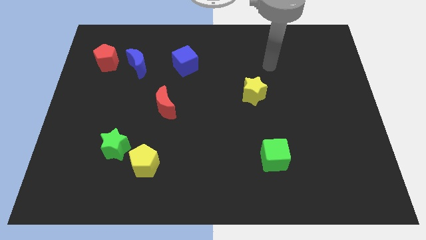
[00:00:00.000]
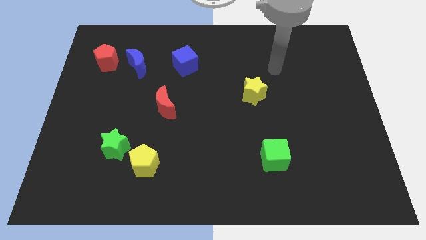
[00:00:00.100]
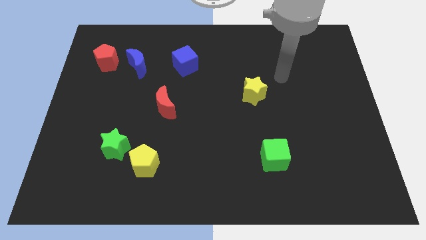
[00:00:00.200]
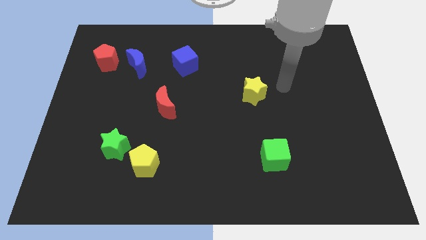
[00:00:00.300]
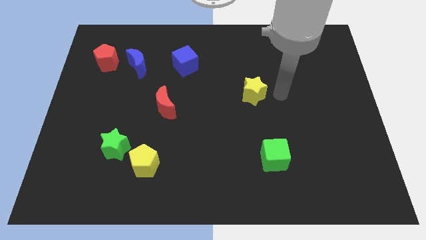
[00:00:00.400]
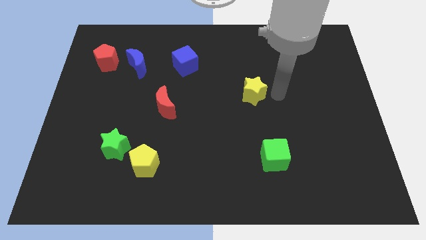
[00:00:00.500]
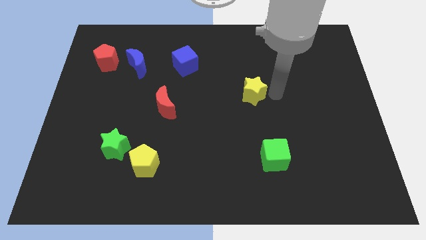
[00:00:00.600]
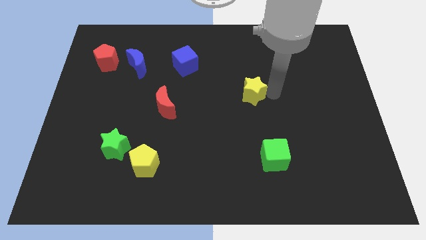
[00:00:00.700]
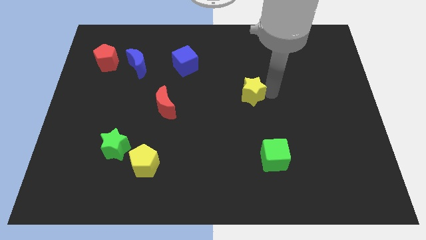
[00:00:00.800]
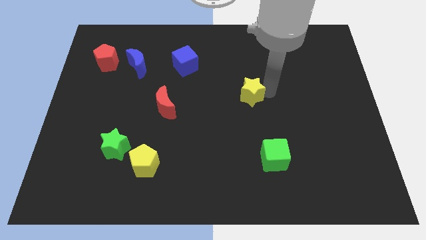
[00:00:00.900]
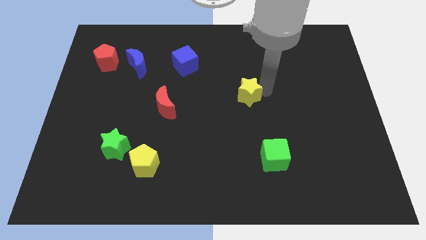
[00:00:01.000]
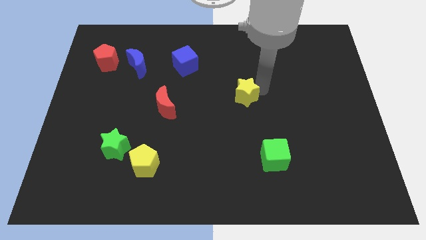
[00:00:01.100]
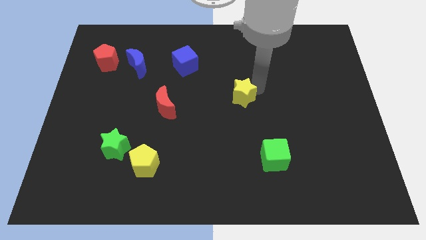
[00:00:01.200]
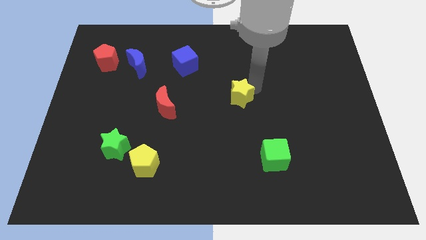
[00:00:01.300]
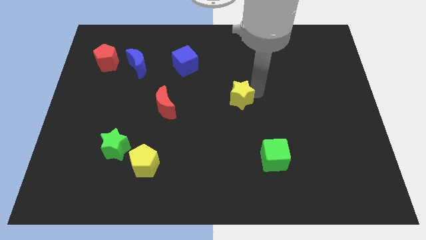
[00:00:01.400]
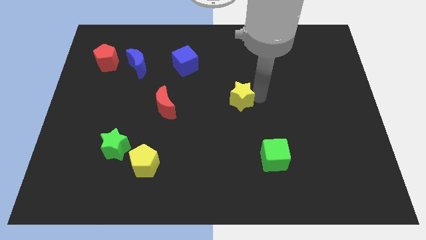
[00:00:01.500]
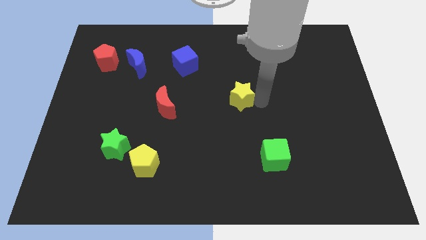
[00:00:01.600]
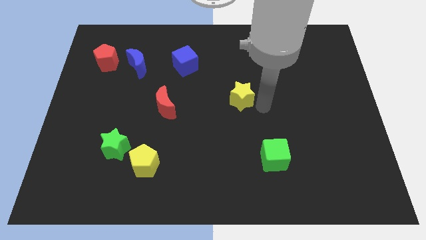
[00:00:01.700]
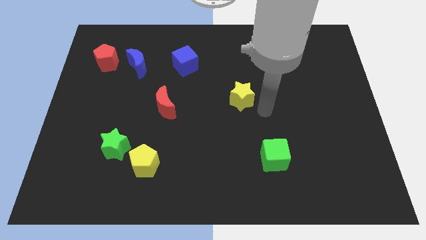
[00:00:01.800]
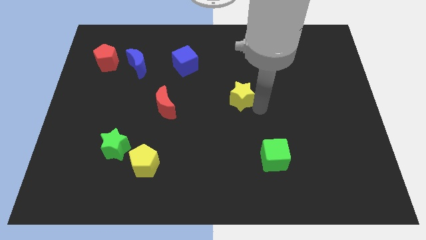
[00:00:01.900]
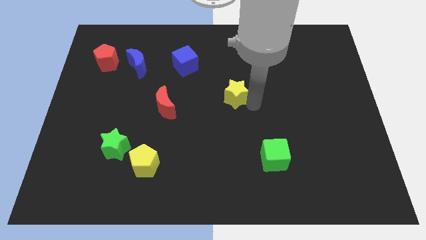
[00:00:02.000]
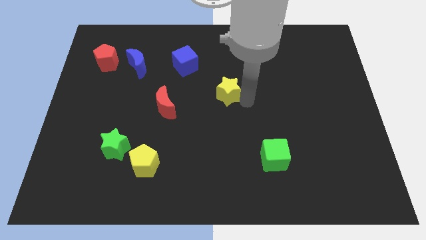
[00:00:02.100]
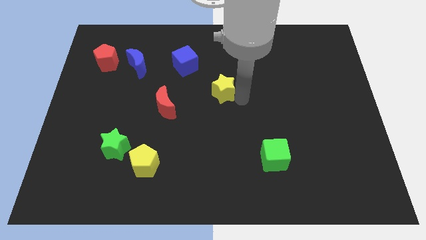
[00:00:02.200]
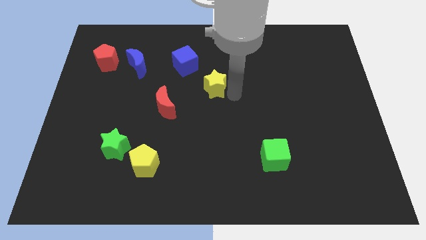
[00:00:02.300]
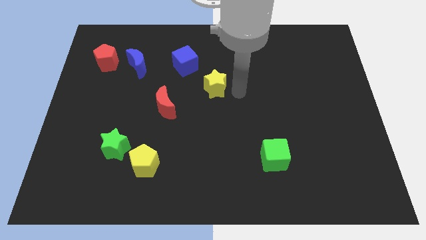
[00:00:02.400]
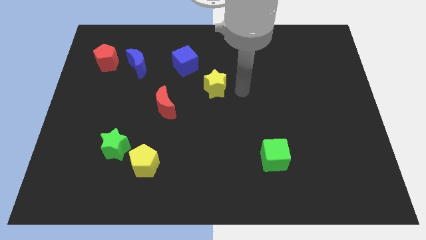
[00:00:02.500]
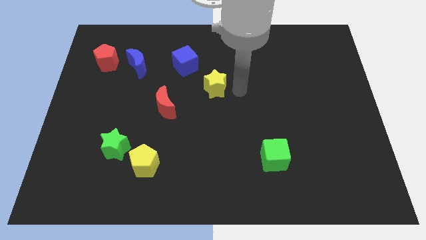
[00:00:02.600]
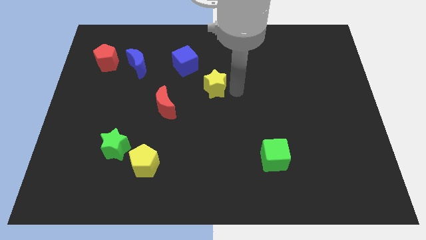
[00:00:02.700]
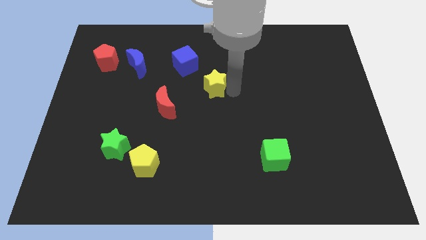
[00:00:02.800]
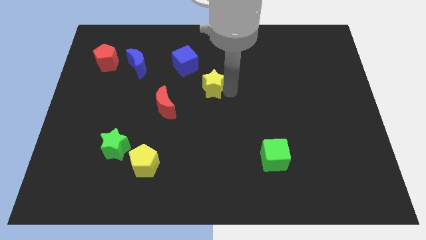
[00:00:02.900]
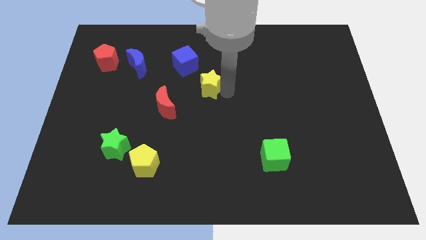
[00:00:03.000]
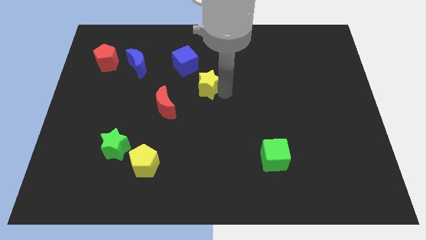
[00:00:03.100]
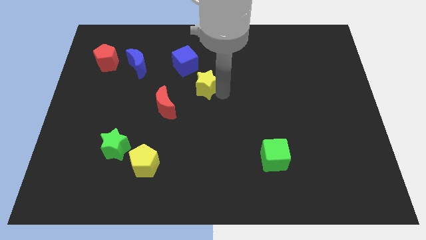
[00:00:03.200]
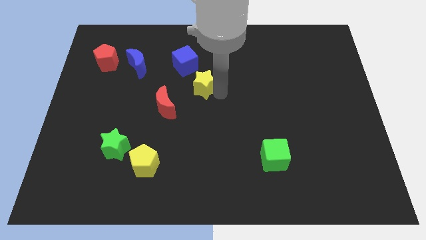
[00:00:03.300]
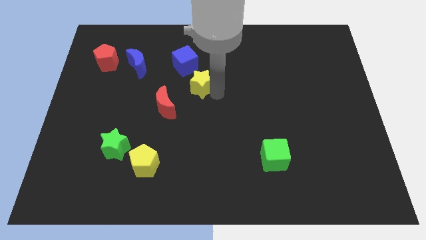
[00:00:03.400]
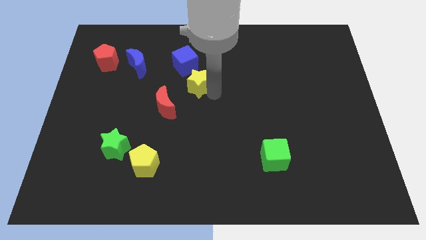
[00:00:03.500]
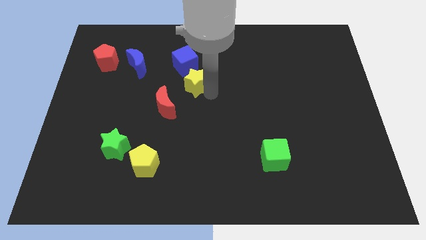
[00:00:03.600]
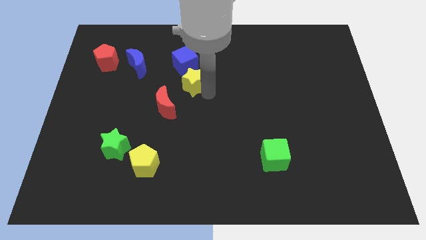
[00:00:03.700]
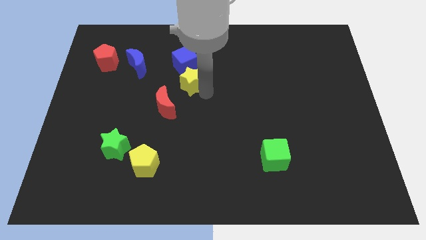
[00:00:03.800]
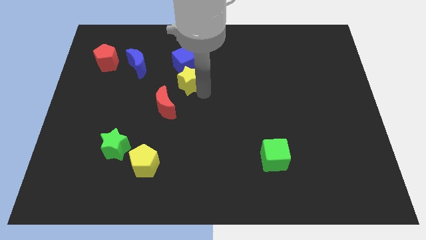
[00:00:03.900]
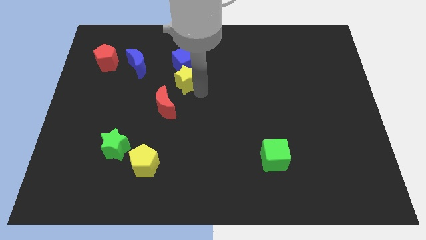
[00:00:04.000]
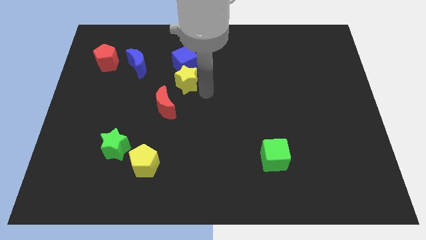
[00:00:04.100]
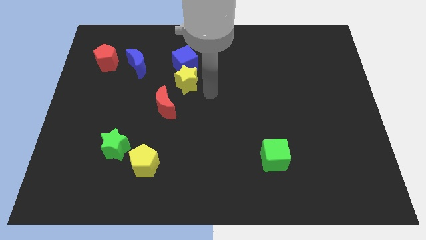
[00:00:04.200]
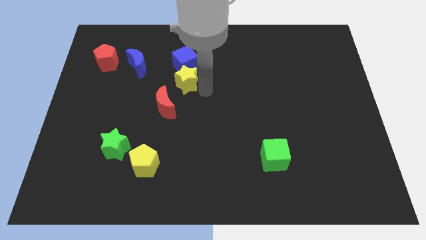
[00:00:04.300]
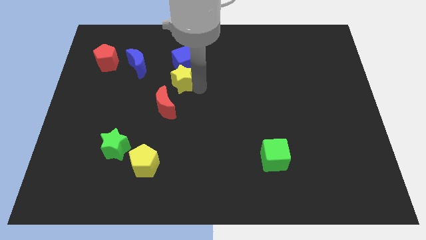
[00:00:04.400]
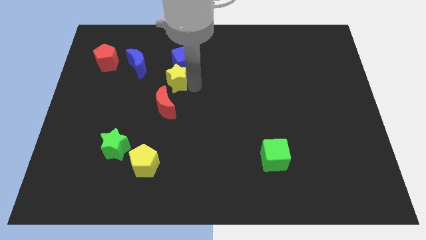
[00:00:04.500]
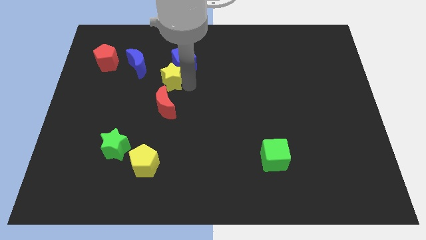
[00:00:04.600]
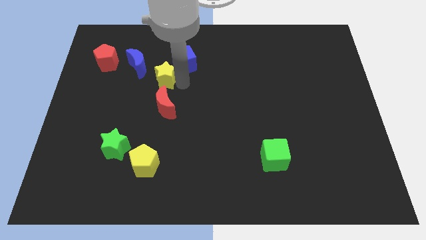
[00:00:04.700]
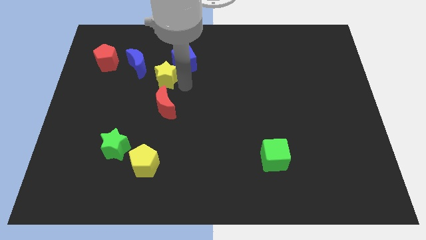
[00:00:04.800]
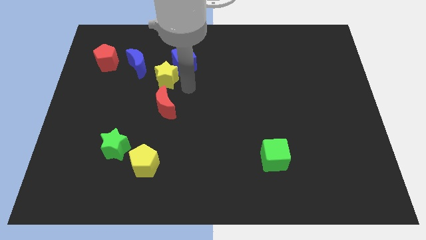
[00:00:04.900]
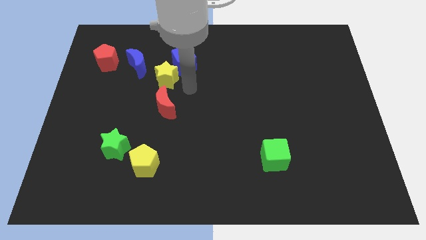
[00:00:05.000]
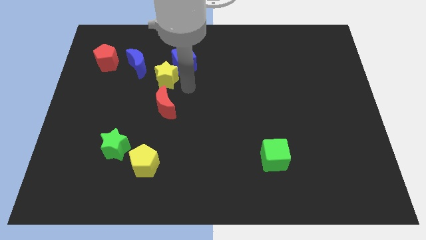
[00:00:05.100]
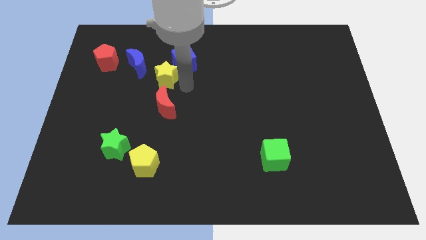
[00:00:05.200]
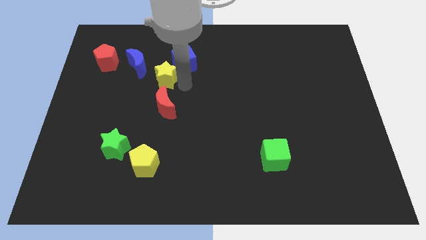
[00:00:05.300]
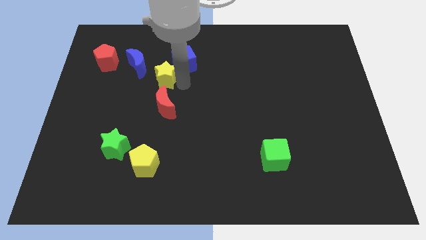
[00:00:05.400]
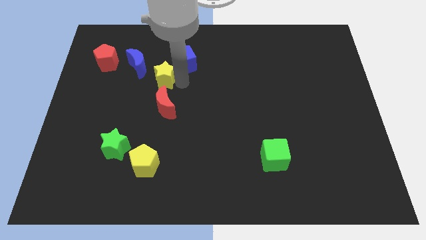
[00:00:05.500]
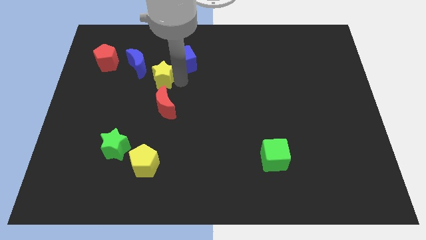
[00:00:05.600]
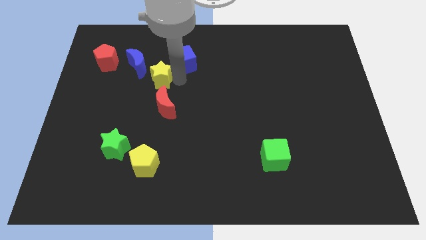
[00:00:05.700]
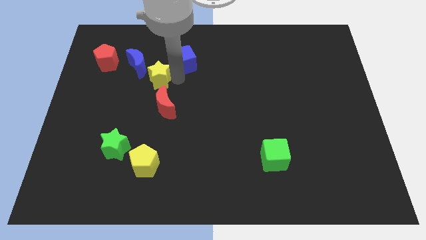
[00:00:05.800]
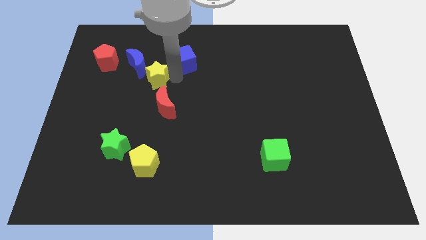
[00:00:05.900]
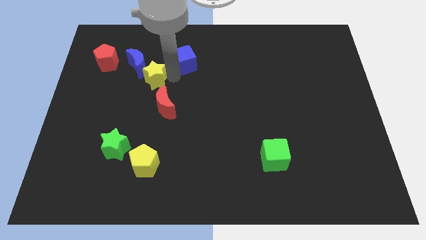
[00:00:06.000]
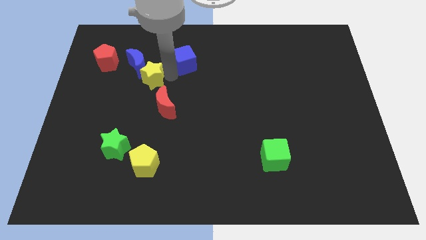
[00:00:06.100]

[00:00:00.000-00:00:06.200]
push the yellow star towards the blue moon
